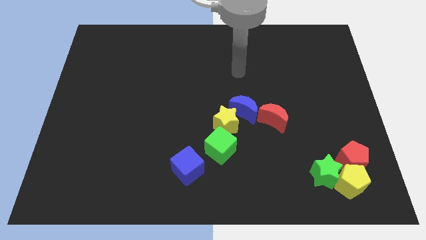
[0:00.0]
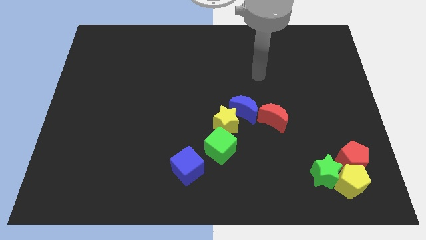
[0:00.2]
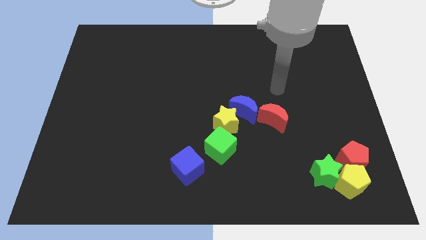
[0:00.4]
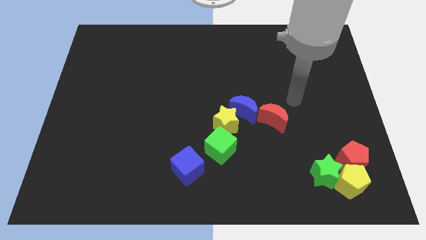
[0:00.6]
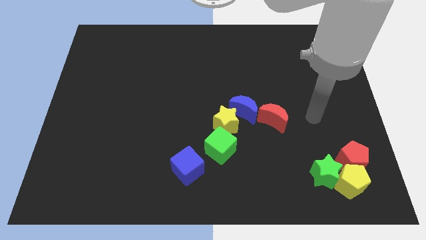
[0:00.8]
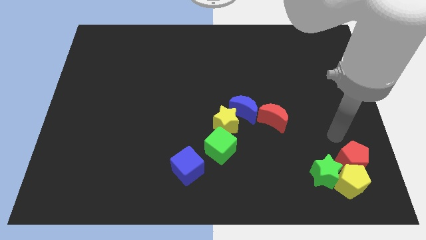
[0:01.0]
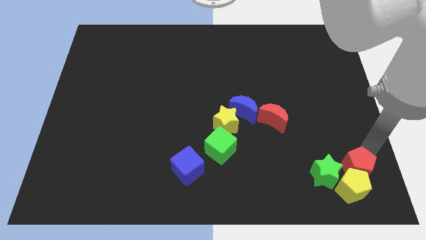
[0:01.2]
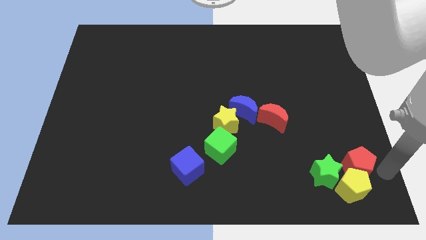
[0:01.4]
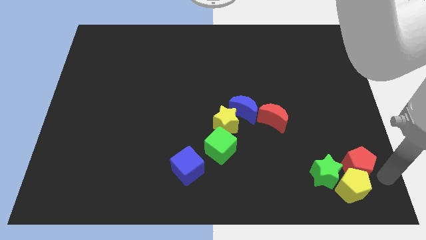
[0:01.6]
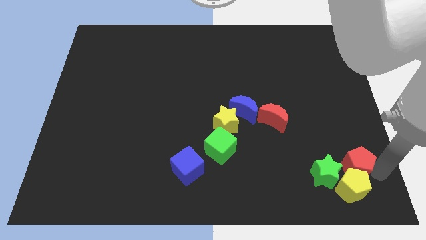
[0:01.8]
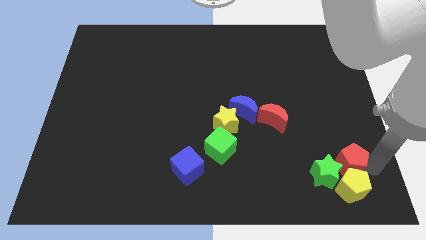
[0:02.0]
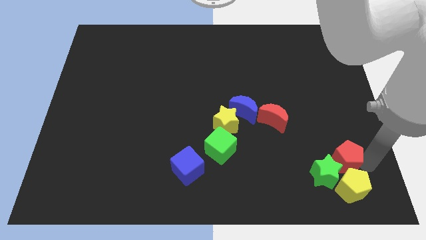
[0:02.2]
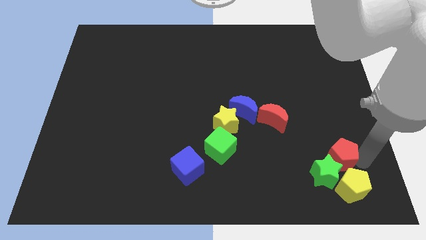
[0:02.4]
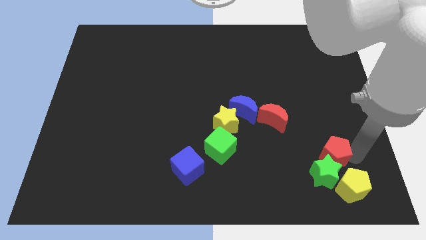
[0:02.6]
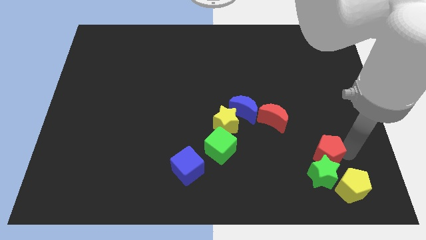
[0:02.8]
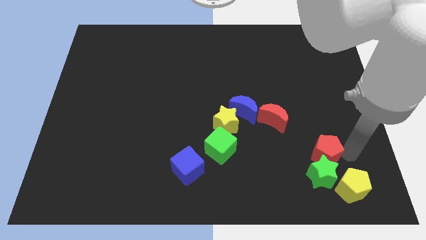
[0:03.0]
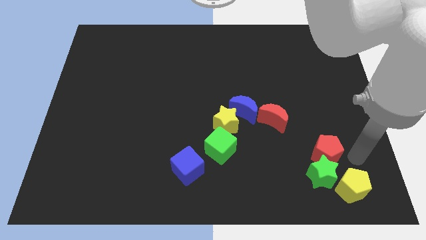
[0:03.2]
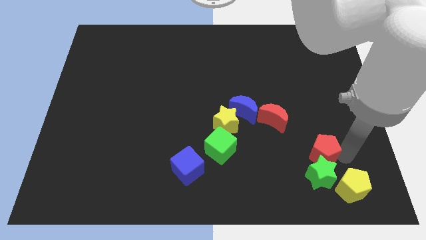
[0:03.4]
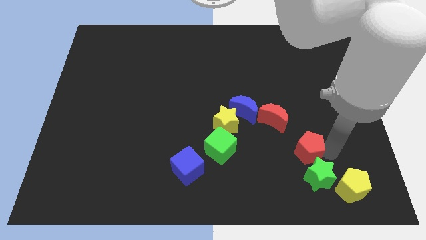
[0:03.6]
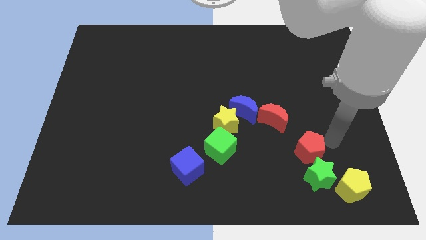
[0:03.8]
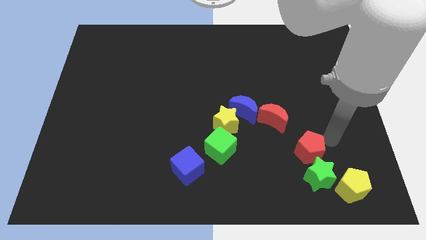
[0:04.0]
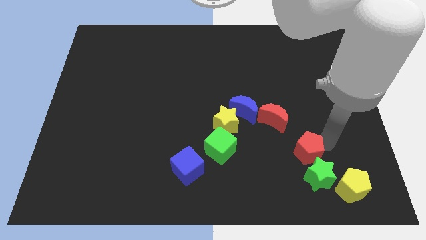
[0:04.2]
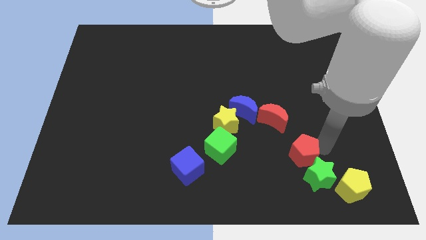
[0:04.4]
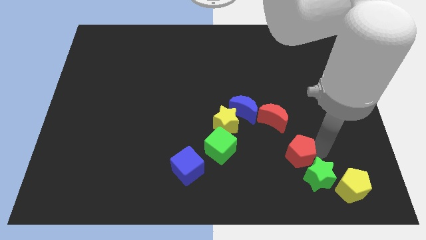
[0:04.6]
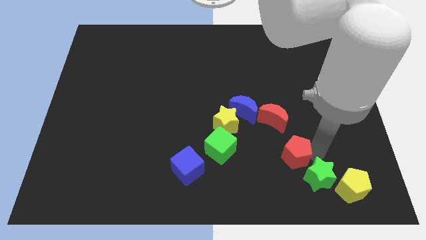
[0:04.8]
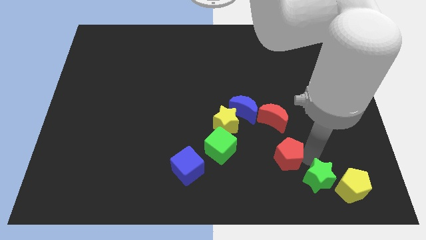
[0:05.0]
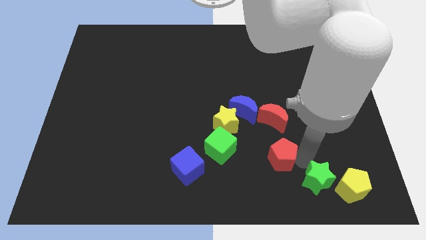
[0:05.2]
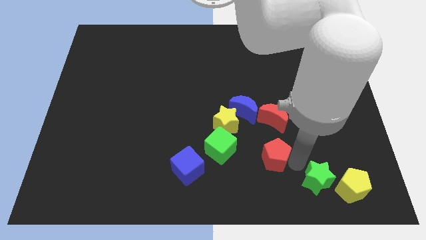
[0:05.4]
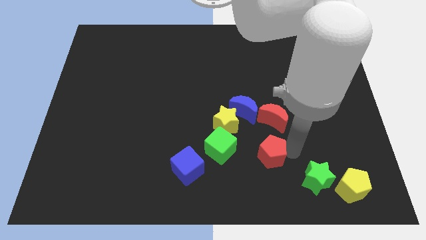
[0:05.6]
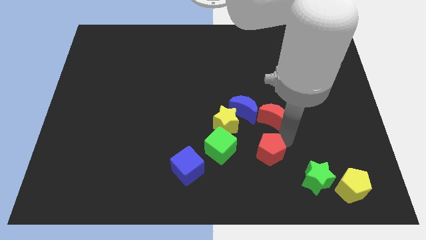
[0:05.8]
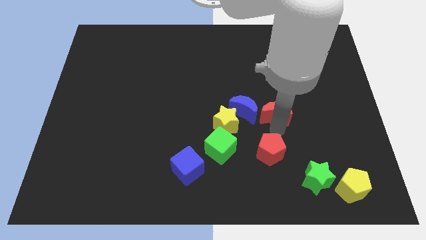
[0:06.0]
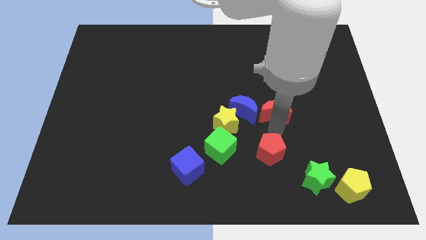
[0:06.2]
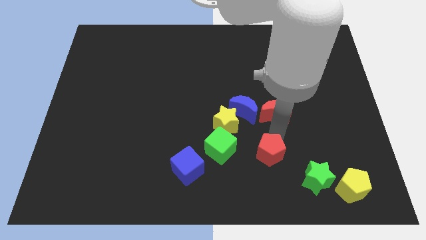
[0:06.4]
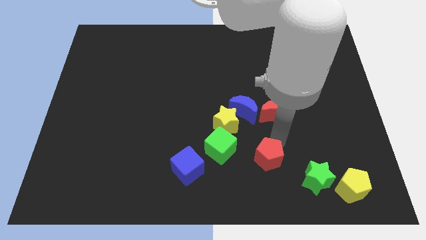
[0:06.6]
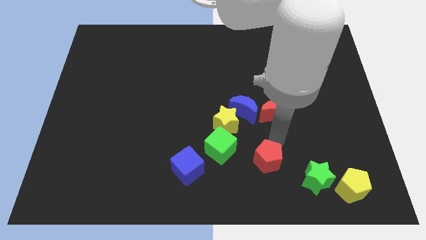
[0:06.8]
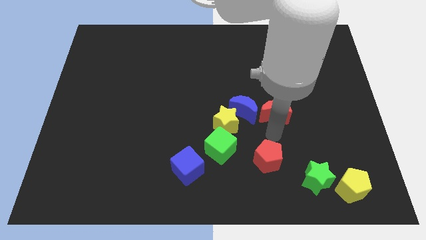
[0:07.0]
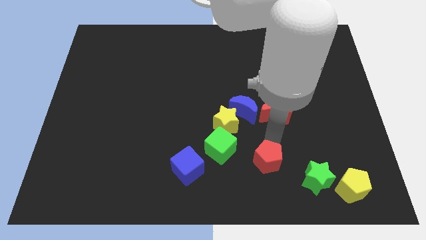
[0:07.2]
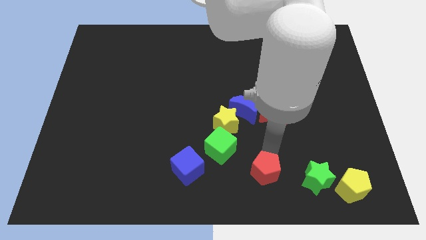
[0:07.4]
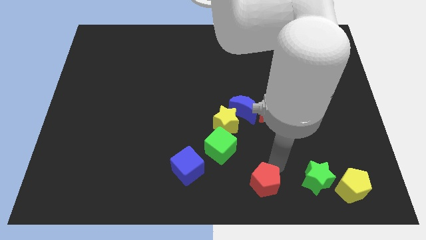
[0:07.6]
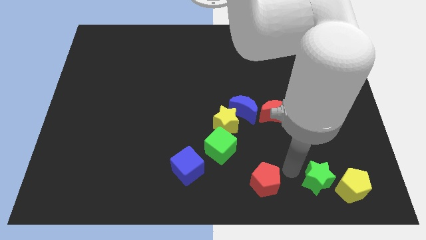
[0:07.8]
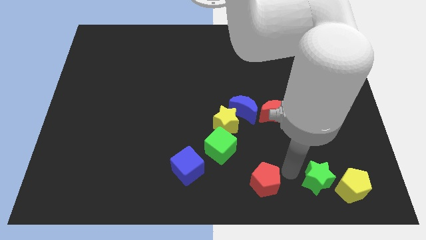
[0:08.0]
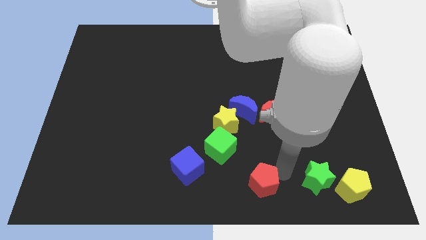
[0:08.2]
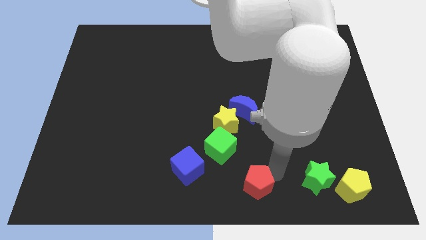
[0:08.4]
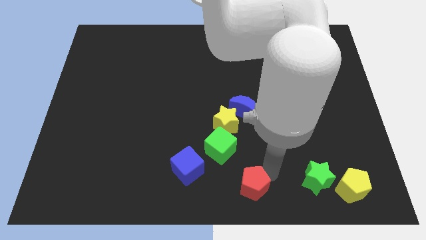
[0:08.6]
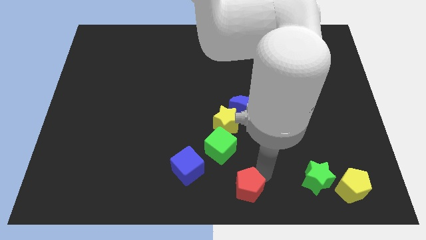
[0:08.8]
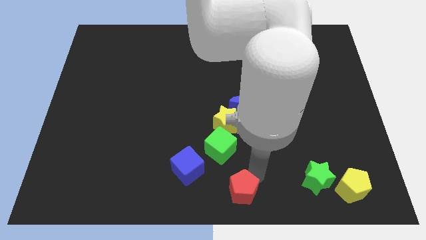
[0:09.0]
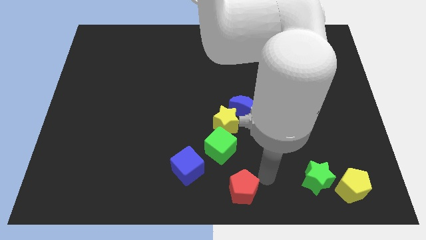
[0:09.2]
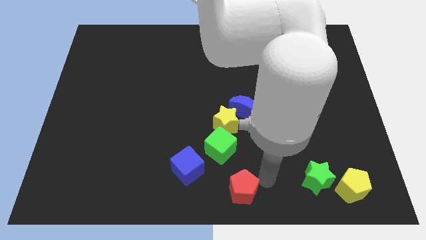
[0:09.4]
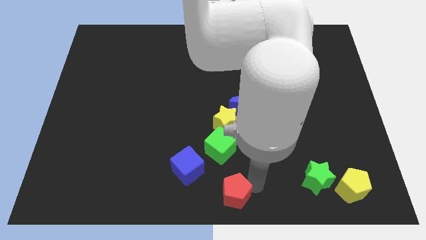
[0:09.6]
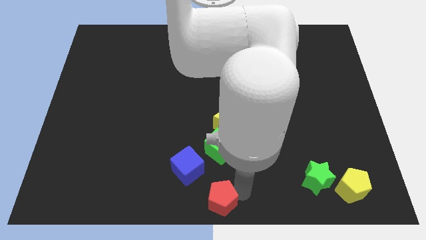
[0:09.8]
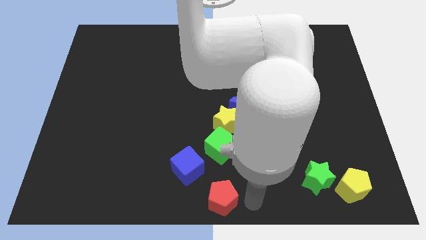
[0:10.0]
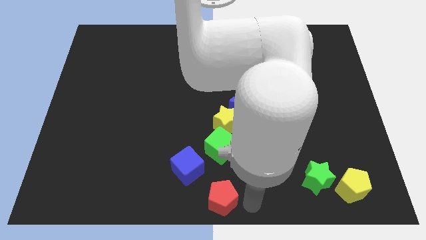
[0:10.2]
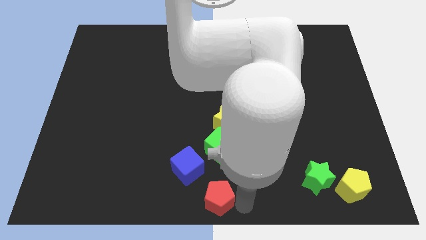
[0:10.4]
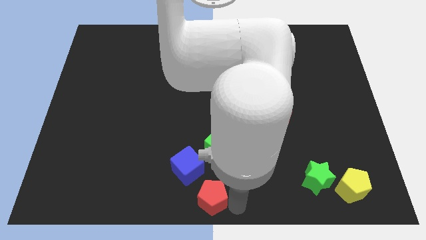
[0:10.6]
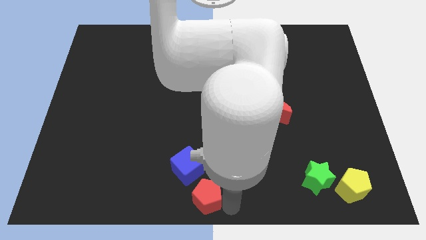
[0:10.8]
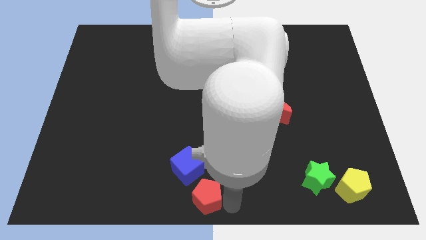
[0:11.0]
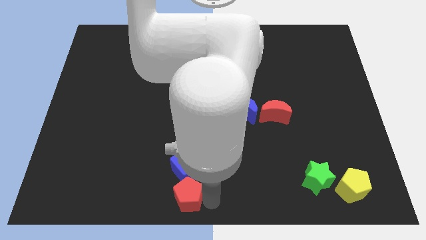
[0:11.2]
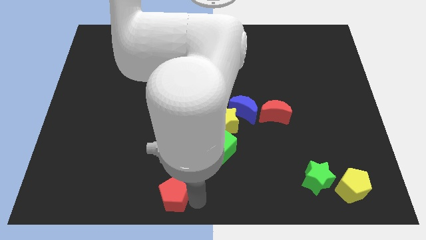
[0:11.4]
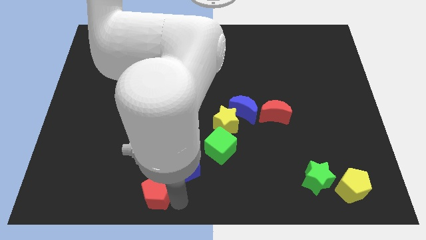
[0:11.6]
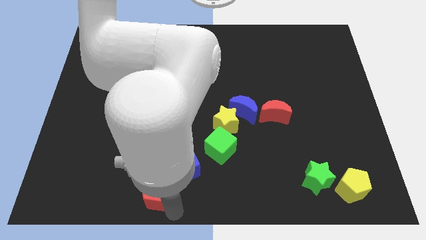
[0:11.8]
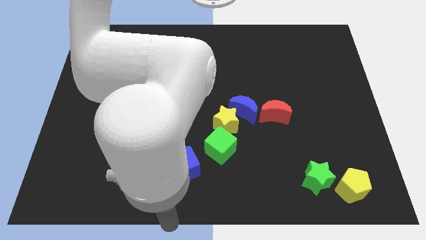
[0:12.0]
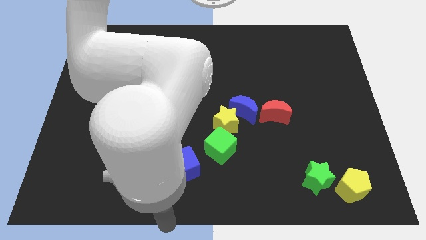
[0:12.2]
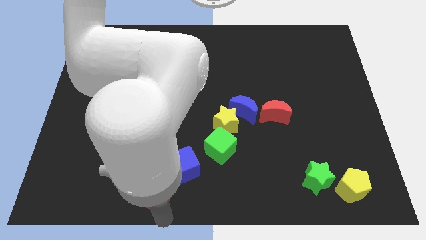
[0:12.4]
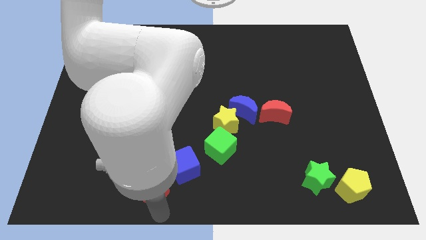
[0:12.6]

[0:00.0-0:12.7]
push the red pentagon to the left side of the blue cube

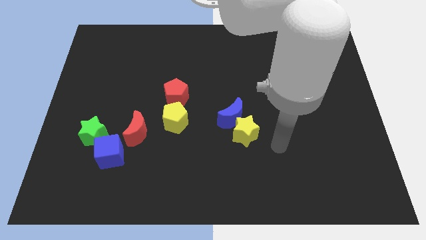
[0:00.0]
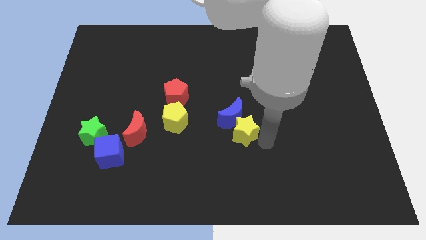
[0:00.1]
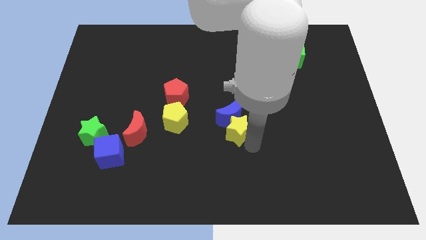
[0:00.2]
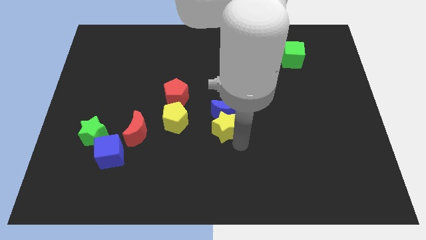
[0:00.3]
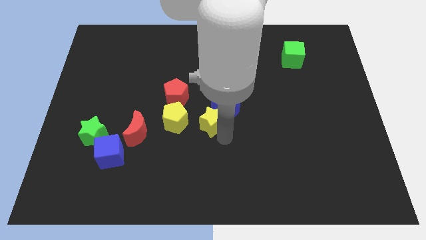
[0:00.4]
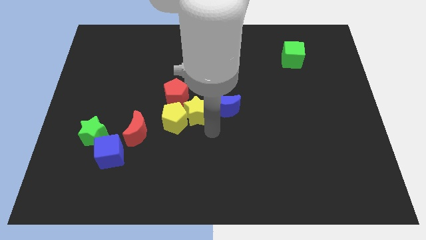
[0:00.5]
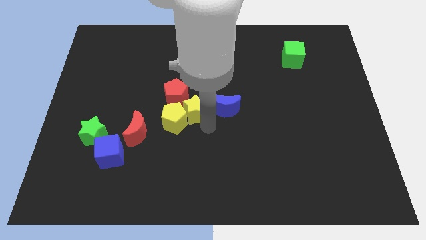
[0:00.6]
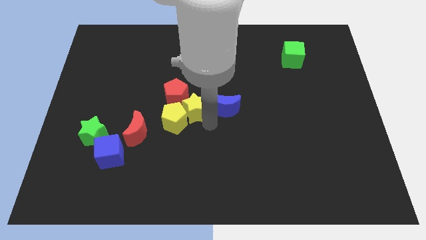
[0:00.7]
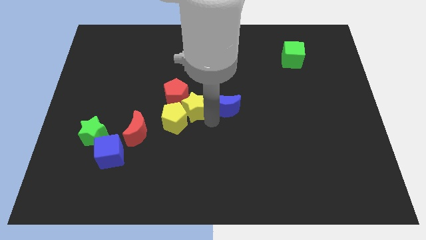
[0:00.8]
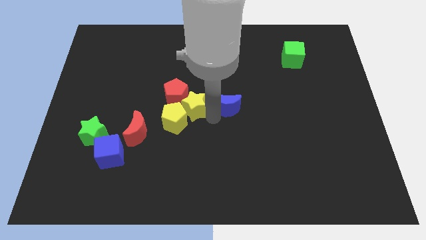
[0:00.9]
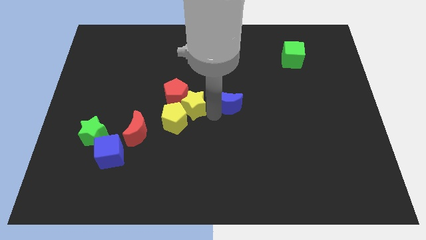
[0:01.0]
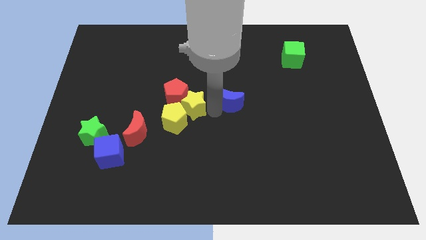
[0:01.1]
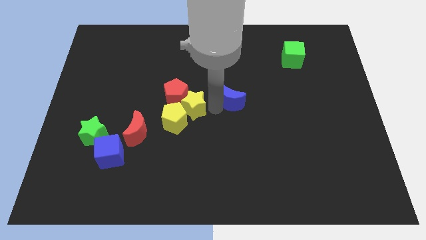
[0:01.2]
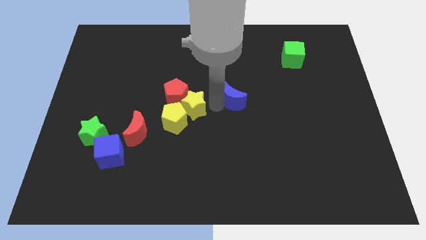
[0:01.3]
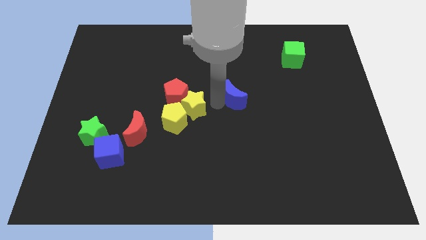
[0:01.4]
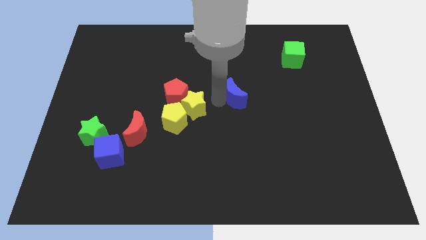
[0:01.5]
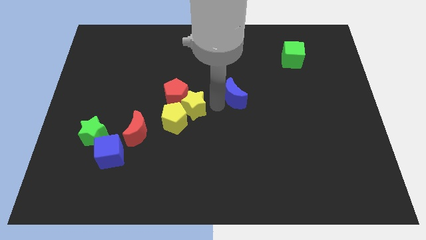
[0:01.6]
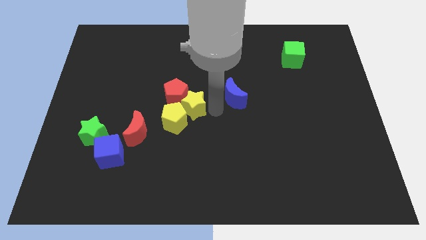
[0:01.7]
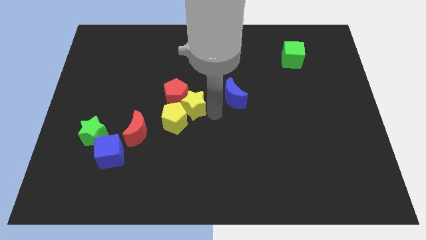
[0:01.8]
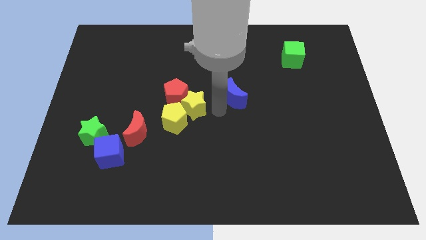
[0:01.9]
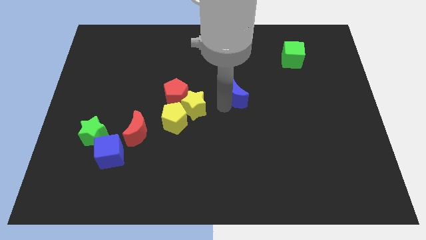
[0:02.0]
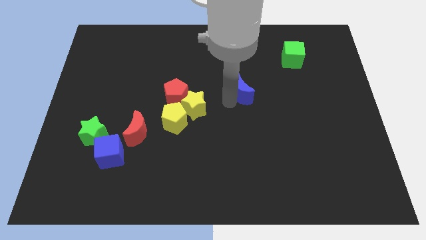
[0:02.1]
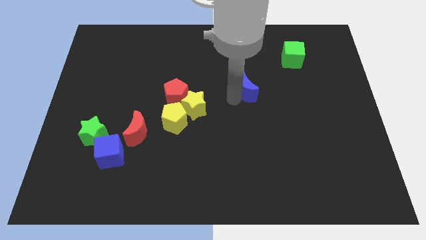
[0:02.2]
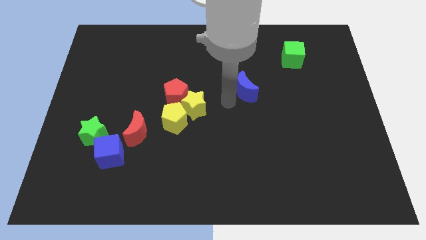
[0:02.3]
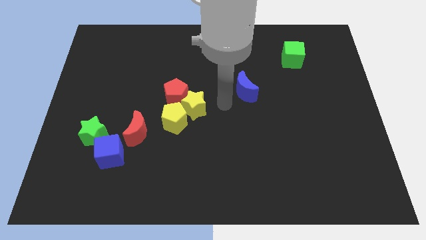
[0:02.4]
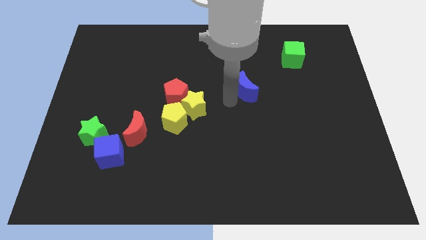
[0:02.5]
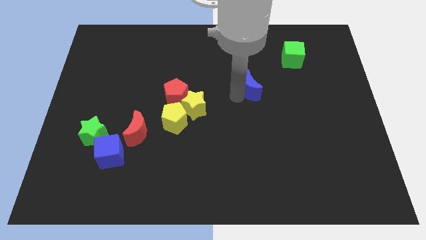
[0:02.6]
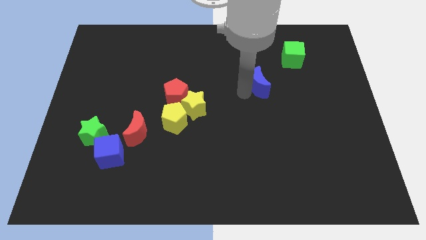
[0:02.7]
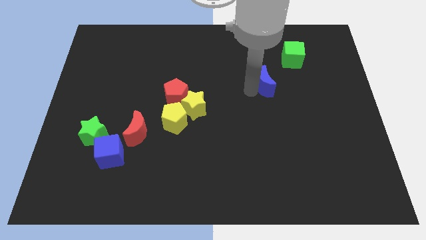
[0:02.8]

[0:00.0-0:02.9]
push the blue moon diagonally down and to the left of the green cube
